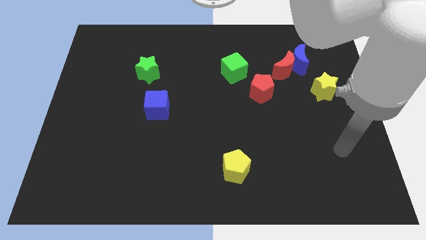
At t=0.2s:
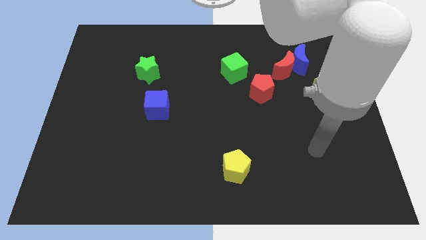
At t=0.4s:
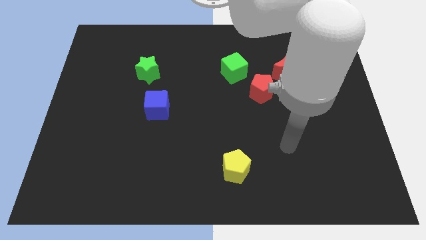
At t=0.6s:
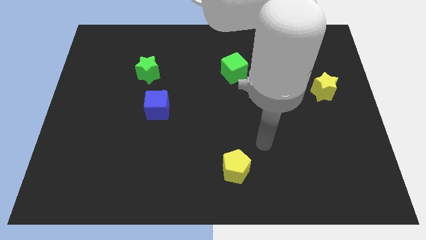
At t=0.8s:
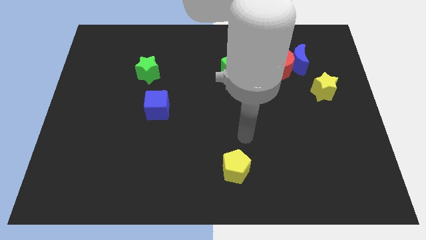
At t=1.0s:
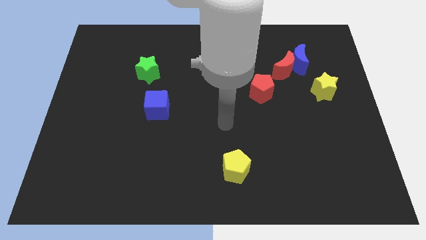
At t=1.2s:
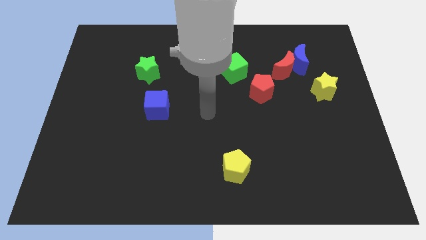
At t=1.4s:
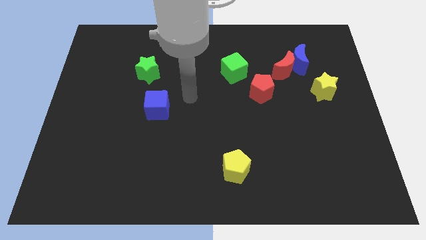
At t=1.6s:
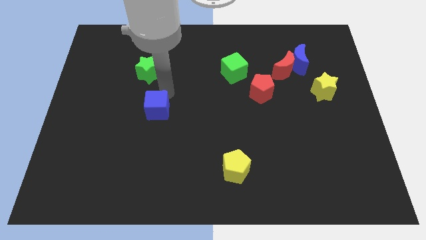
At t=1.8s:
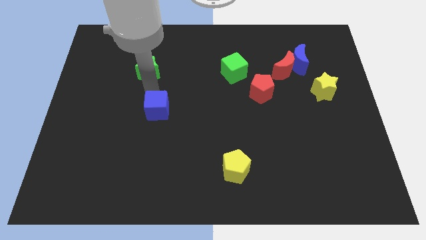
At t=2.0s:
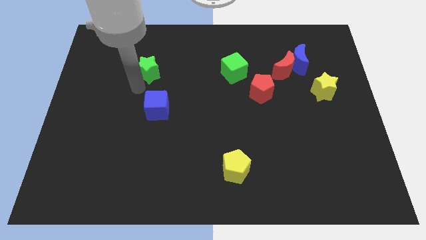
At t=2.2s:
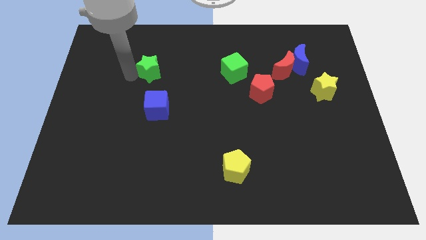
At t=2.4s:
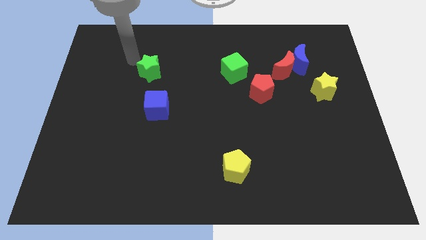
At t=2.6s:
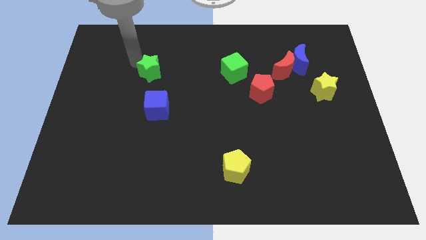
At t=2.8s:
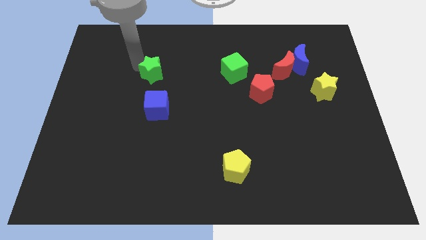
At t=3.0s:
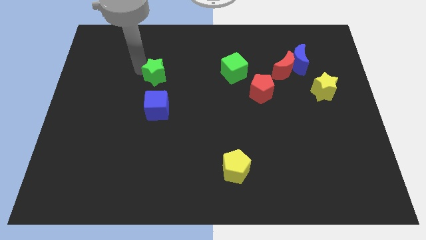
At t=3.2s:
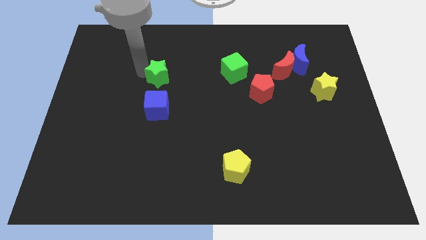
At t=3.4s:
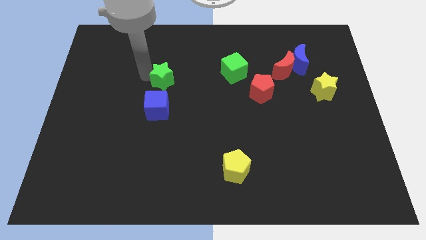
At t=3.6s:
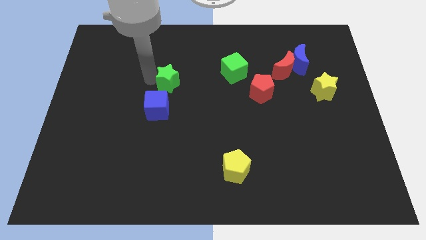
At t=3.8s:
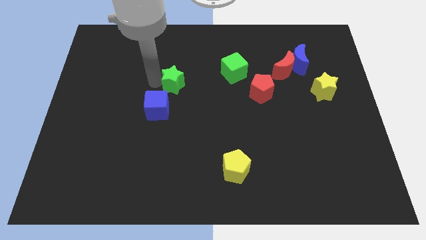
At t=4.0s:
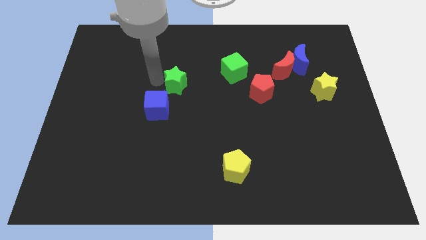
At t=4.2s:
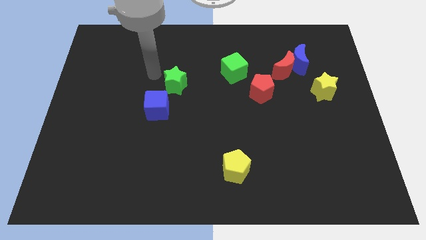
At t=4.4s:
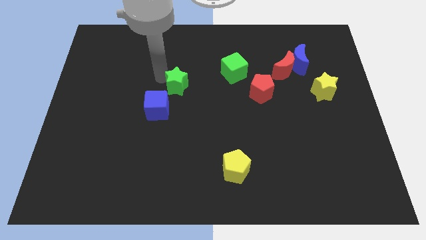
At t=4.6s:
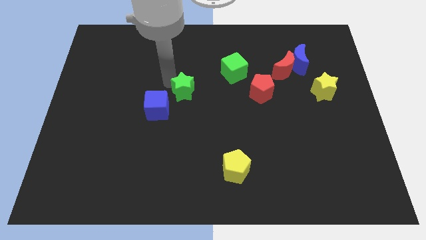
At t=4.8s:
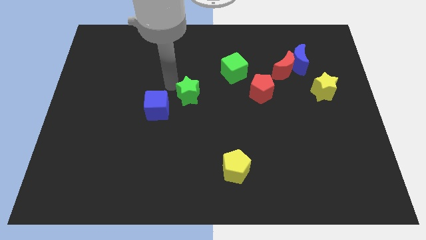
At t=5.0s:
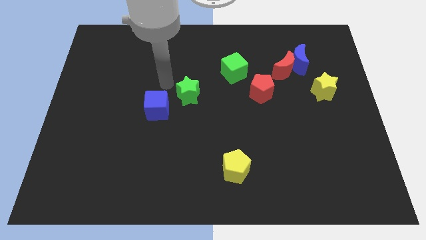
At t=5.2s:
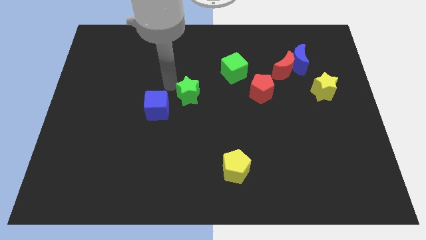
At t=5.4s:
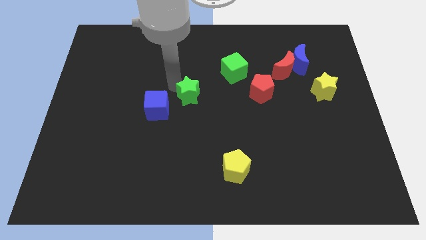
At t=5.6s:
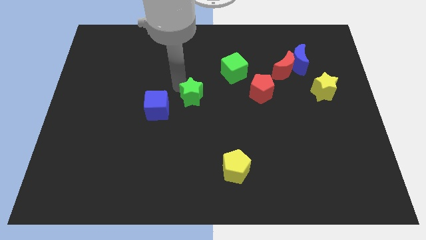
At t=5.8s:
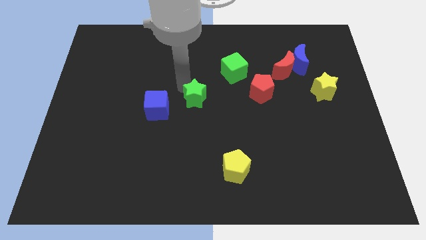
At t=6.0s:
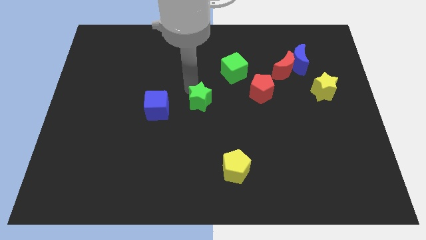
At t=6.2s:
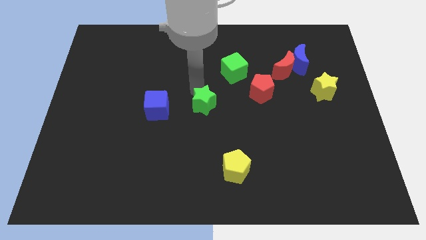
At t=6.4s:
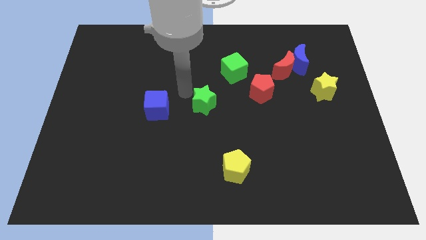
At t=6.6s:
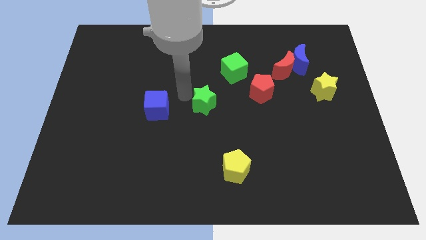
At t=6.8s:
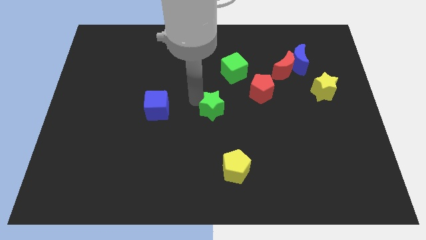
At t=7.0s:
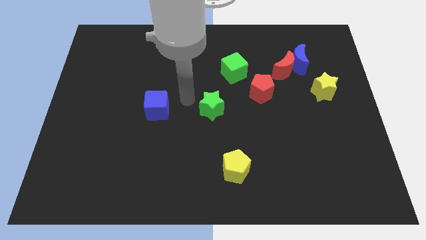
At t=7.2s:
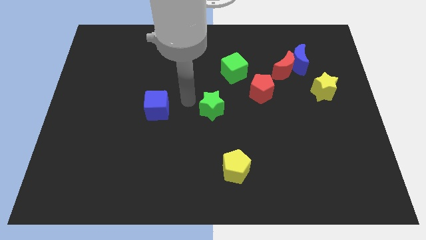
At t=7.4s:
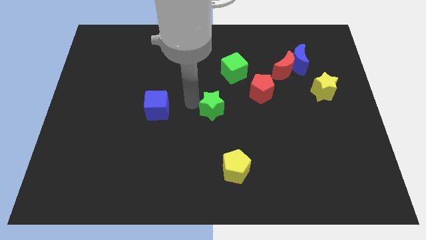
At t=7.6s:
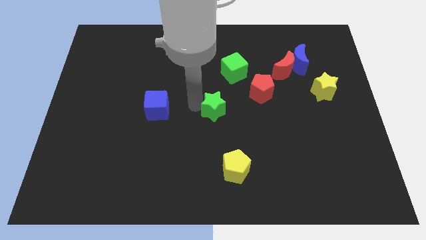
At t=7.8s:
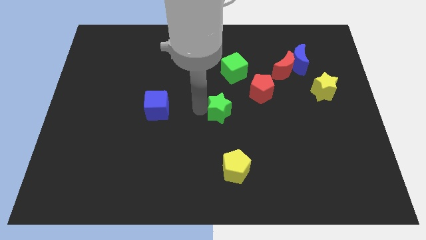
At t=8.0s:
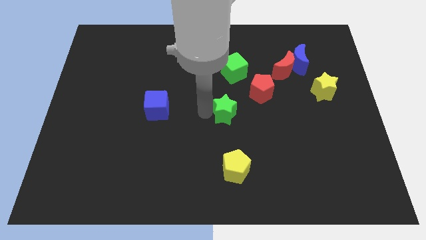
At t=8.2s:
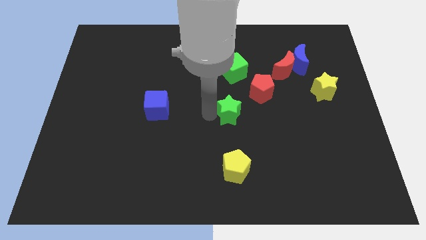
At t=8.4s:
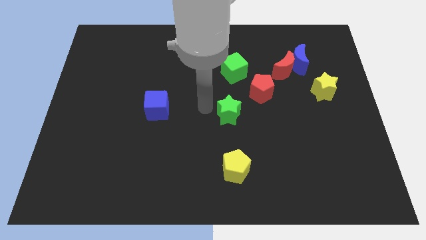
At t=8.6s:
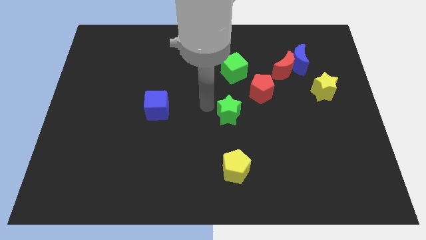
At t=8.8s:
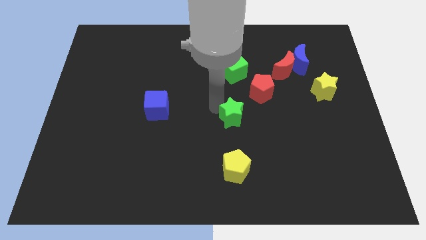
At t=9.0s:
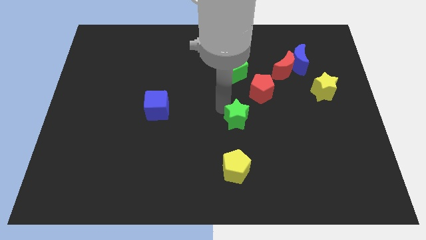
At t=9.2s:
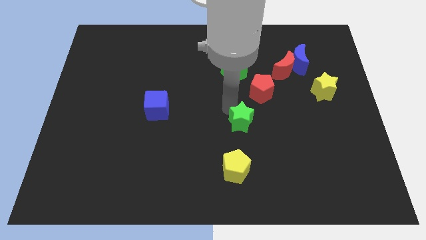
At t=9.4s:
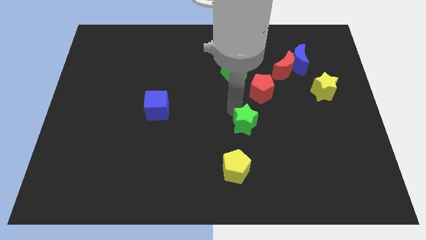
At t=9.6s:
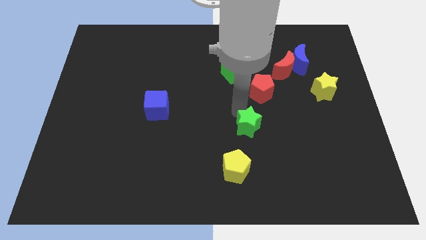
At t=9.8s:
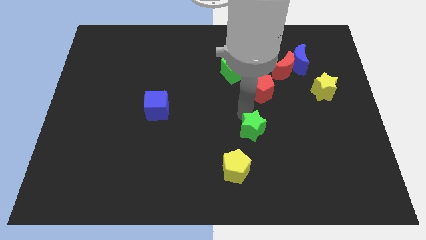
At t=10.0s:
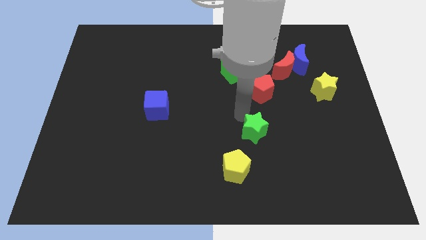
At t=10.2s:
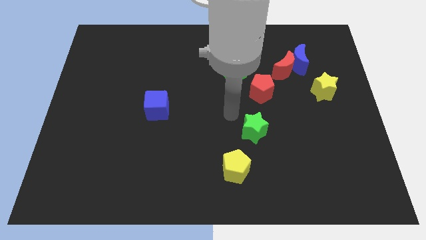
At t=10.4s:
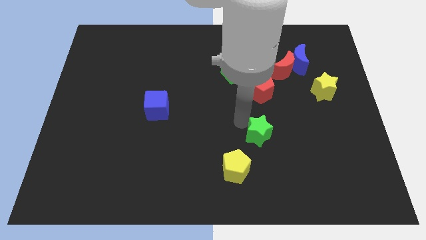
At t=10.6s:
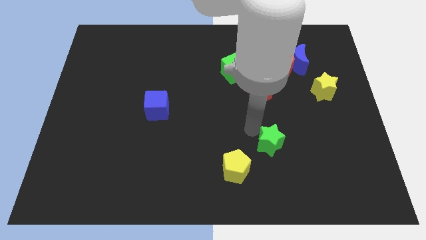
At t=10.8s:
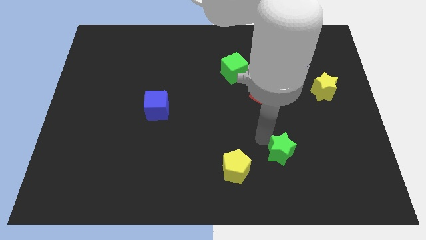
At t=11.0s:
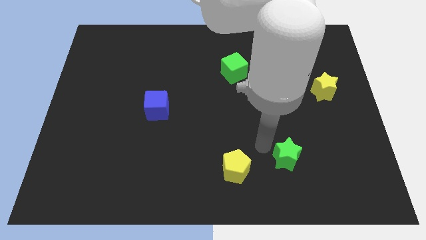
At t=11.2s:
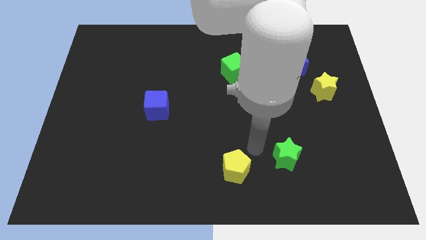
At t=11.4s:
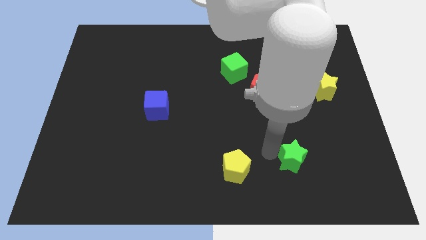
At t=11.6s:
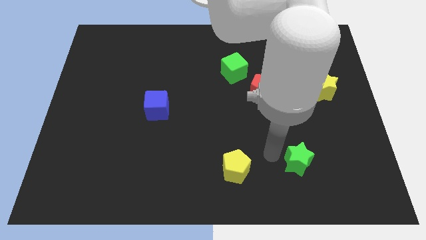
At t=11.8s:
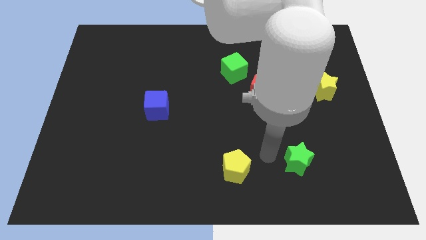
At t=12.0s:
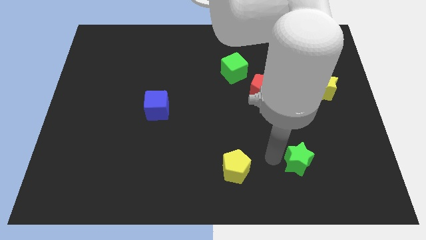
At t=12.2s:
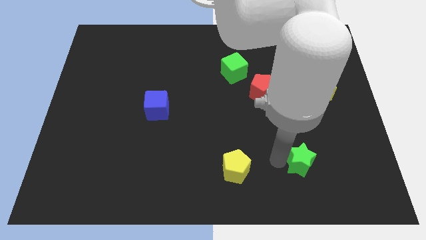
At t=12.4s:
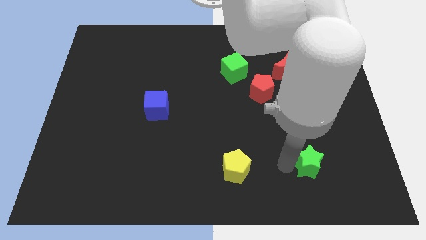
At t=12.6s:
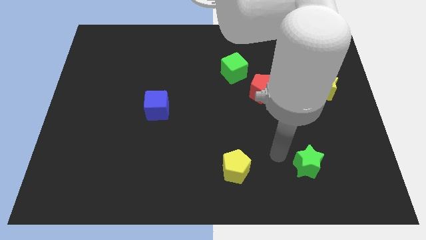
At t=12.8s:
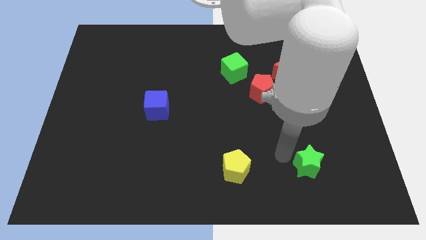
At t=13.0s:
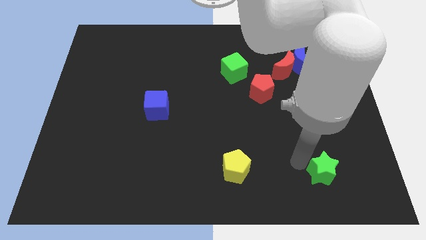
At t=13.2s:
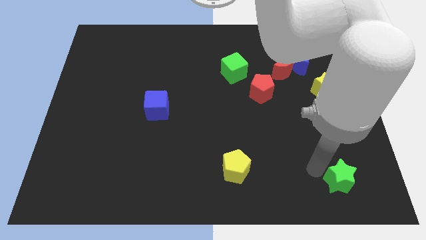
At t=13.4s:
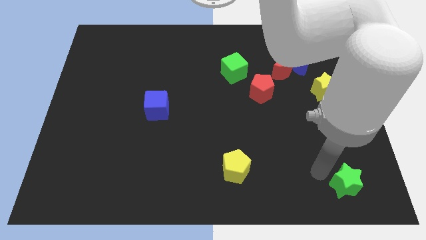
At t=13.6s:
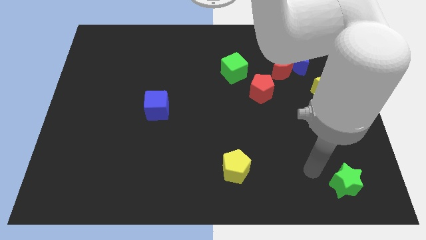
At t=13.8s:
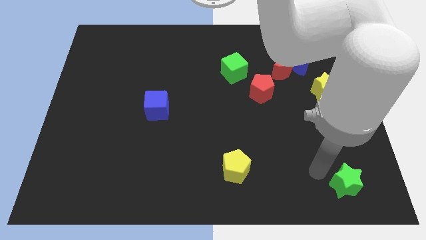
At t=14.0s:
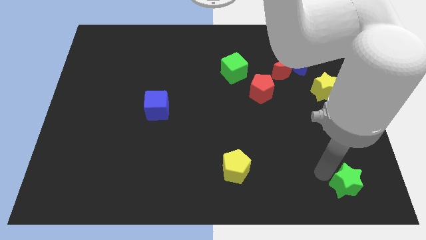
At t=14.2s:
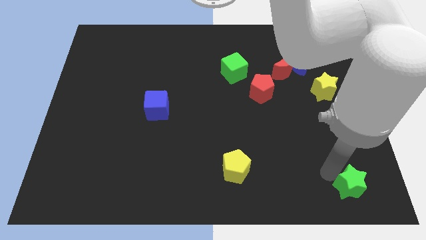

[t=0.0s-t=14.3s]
push the green star to the bottom right of the board
